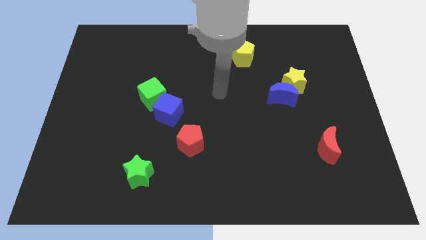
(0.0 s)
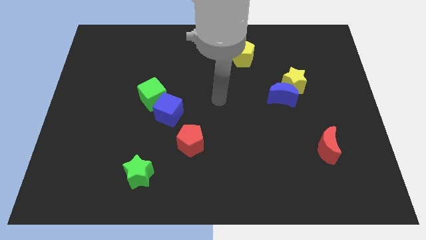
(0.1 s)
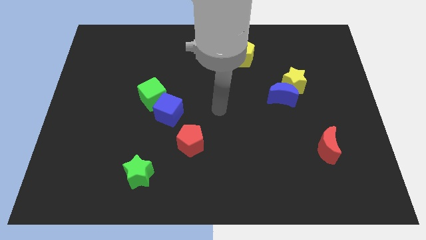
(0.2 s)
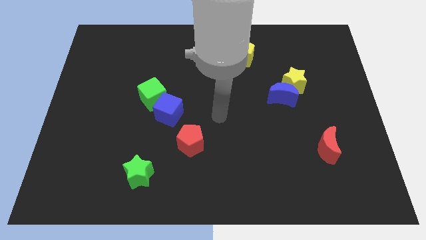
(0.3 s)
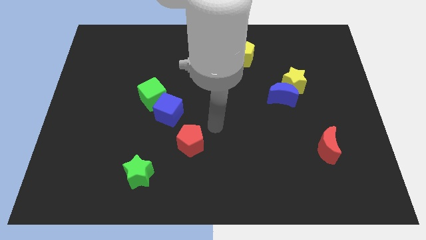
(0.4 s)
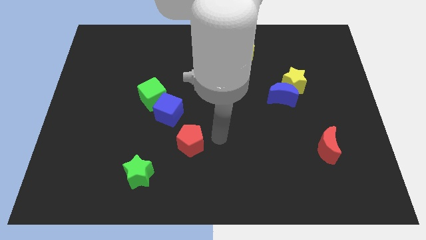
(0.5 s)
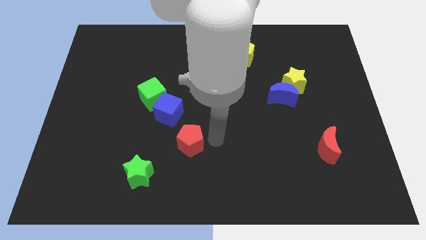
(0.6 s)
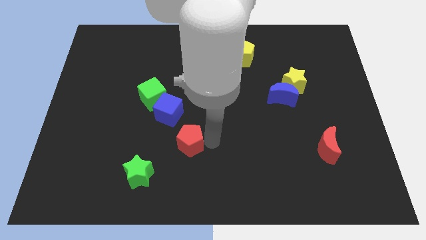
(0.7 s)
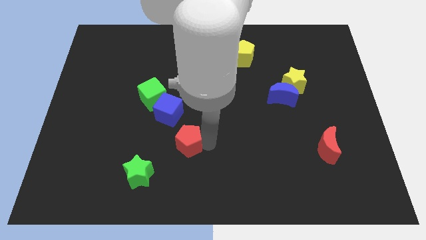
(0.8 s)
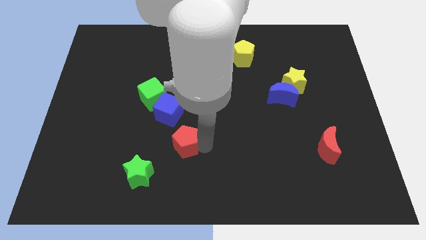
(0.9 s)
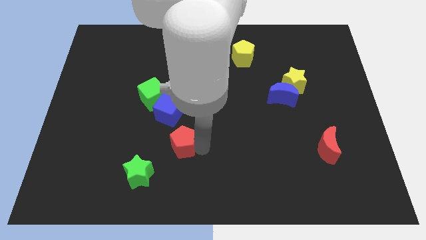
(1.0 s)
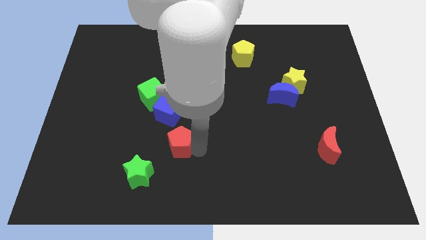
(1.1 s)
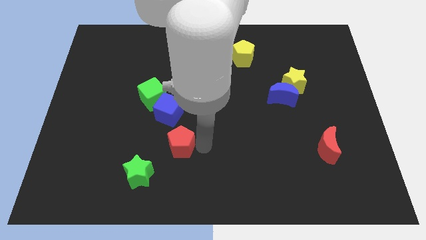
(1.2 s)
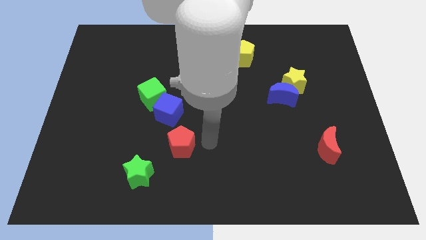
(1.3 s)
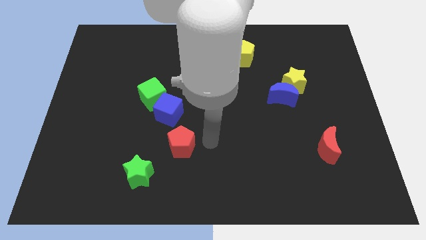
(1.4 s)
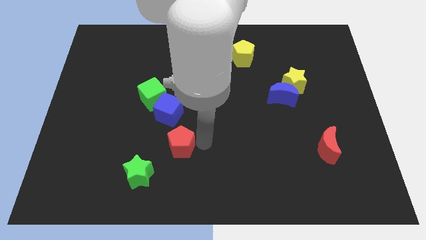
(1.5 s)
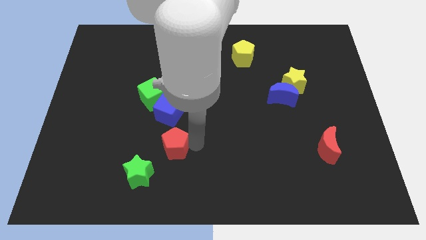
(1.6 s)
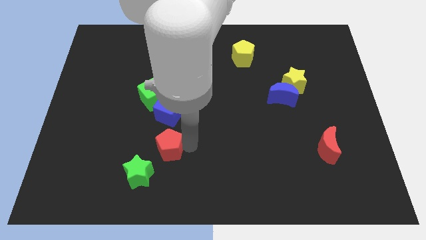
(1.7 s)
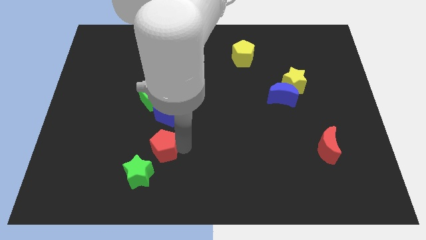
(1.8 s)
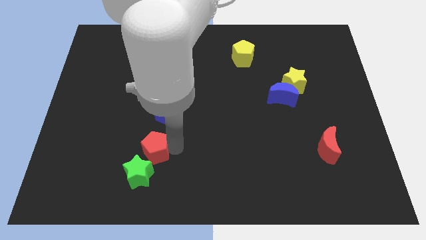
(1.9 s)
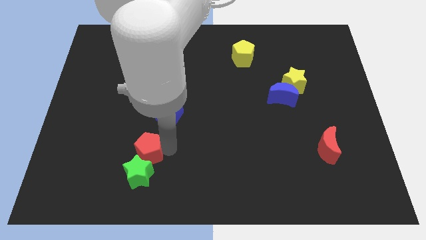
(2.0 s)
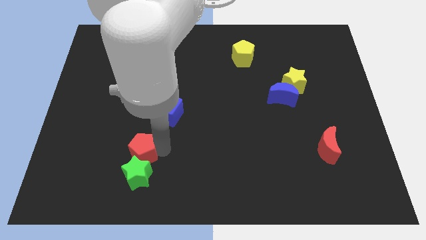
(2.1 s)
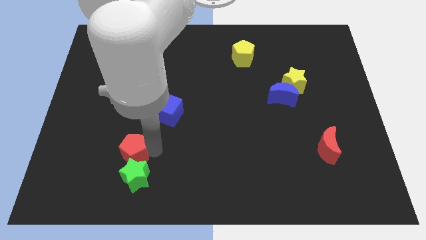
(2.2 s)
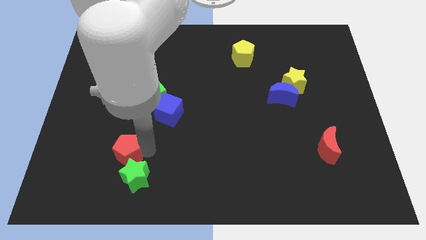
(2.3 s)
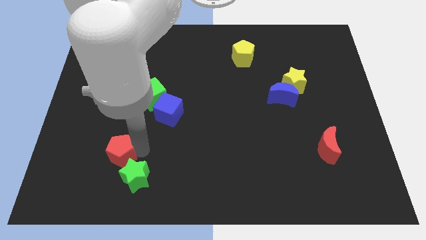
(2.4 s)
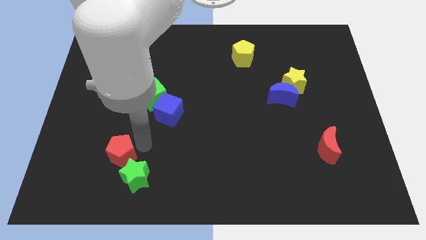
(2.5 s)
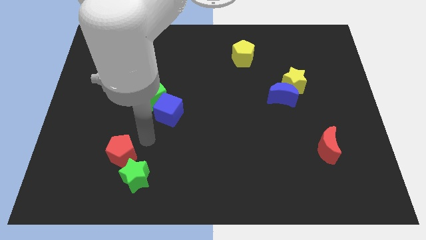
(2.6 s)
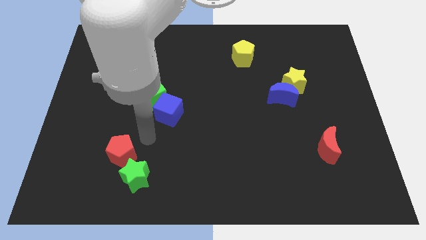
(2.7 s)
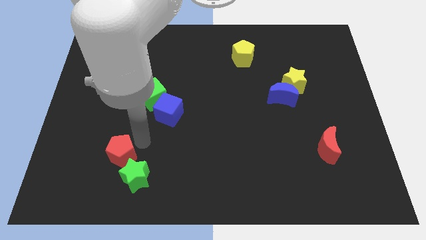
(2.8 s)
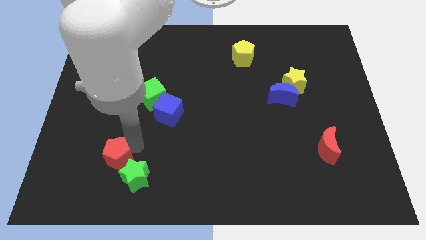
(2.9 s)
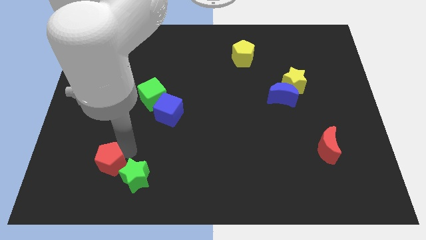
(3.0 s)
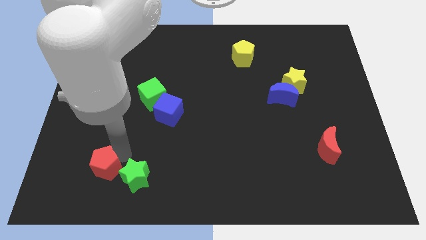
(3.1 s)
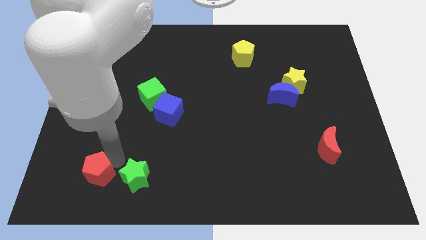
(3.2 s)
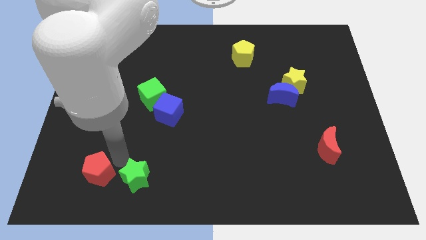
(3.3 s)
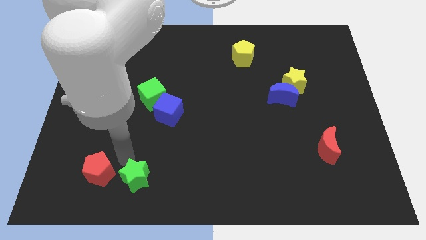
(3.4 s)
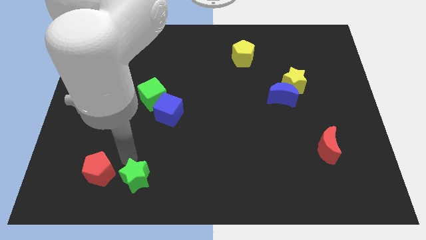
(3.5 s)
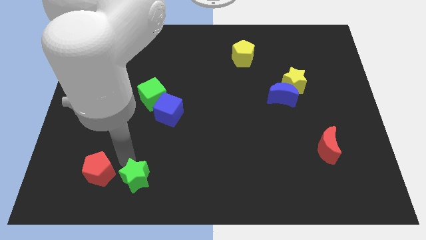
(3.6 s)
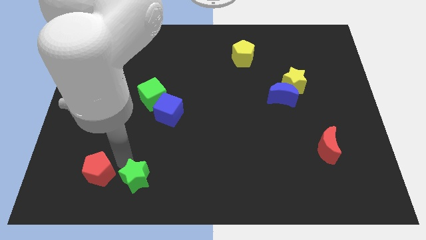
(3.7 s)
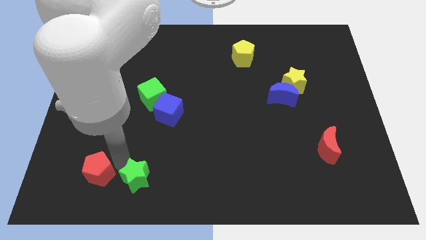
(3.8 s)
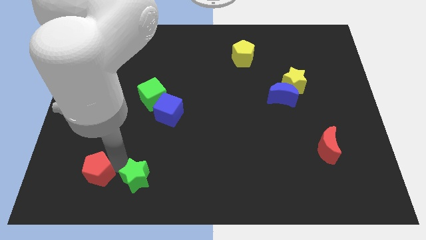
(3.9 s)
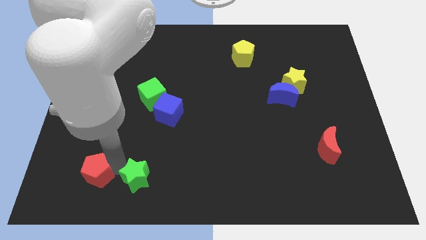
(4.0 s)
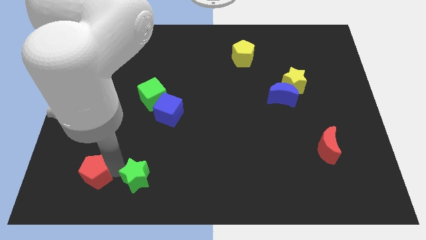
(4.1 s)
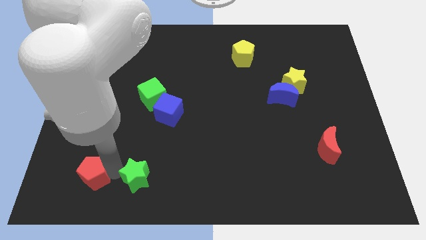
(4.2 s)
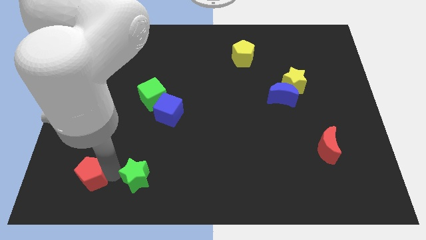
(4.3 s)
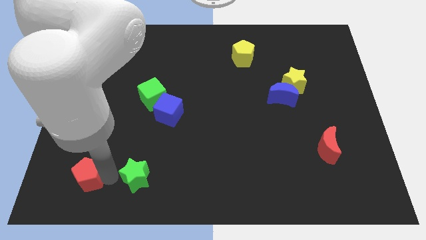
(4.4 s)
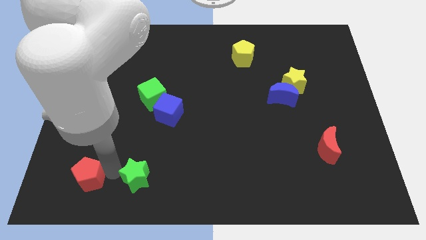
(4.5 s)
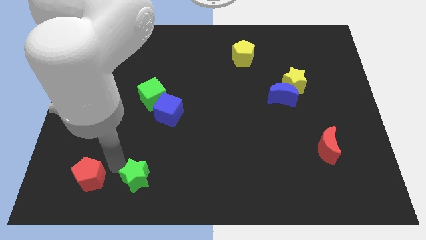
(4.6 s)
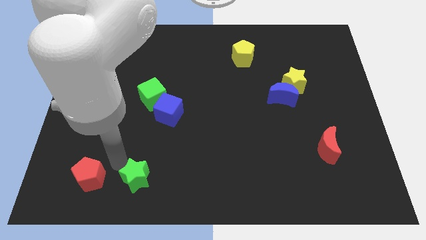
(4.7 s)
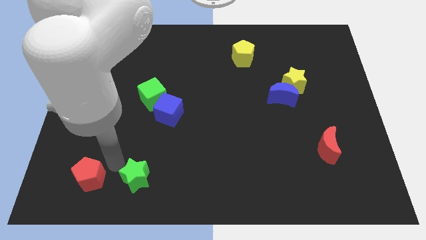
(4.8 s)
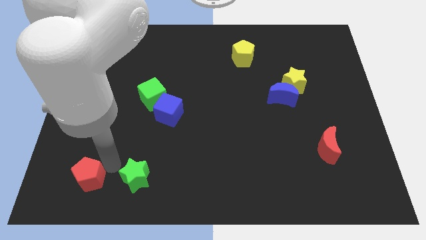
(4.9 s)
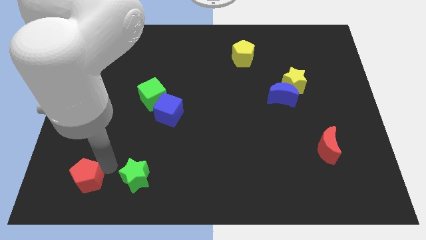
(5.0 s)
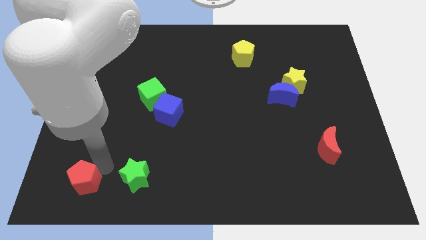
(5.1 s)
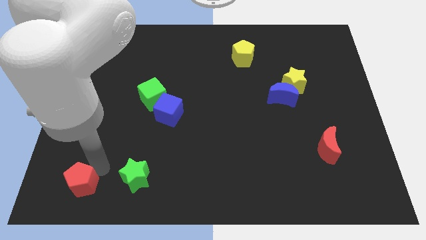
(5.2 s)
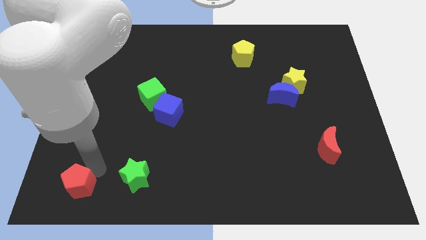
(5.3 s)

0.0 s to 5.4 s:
put the red pentagon to the lower left corner

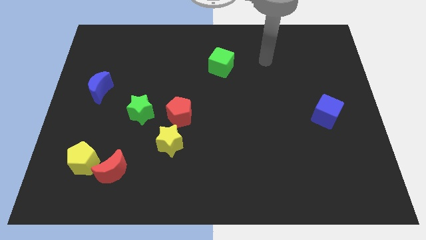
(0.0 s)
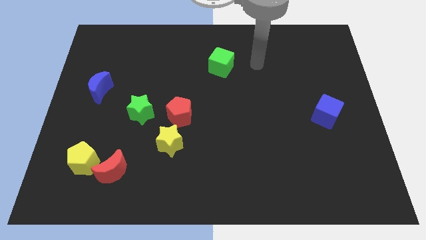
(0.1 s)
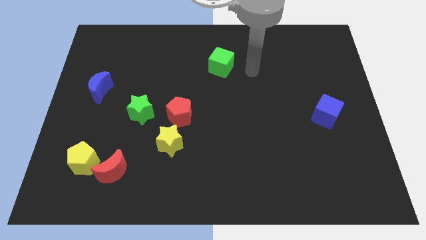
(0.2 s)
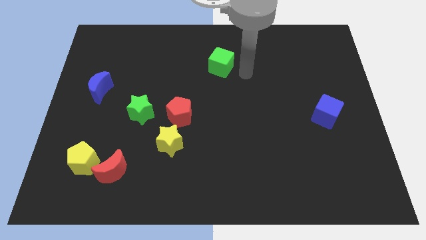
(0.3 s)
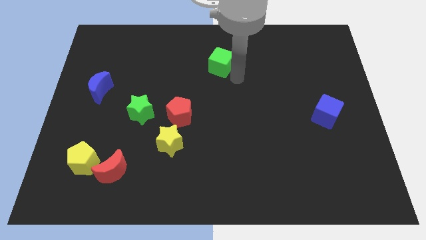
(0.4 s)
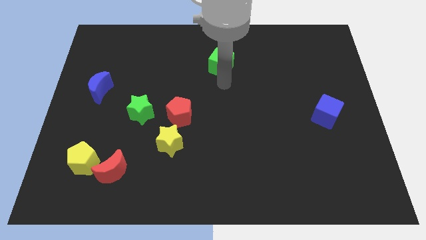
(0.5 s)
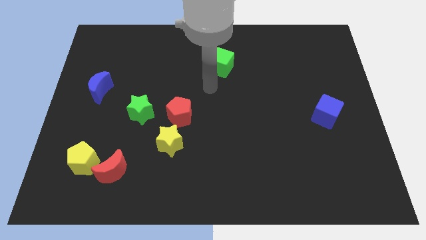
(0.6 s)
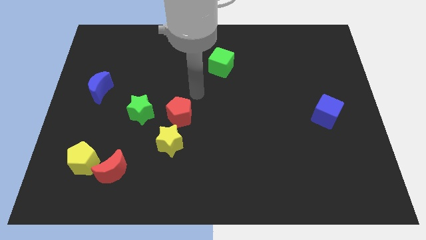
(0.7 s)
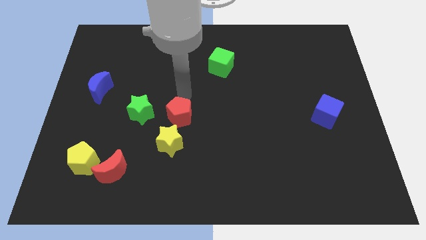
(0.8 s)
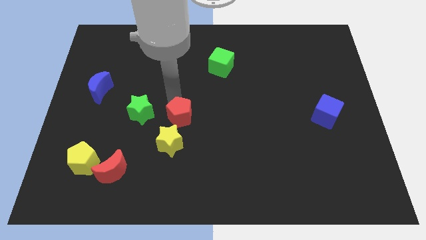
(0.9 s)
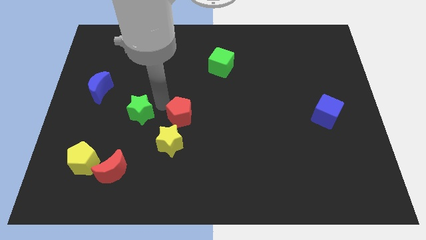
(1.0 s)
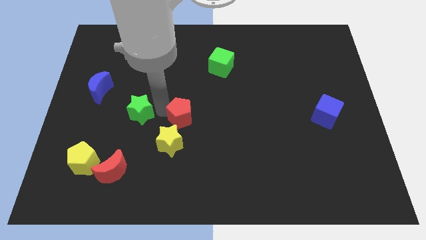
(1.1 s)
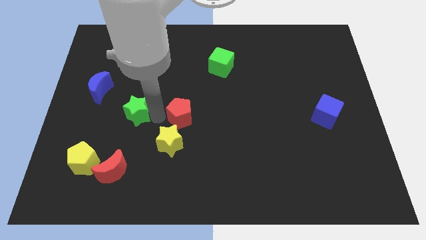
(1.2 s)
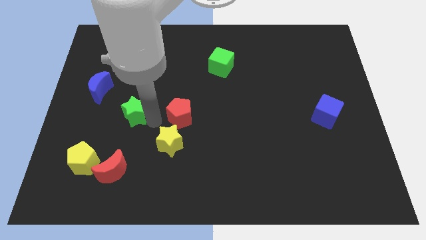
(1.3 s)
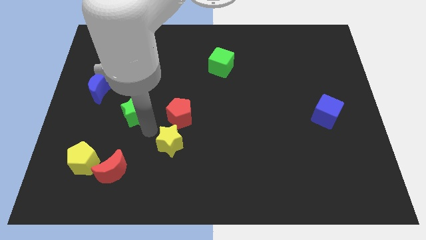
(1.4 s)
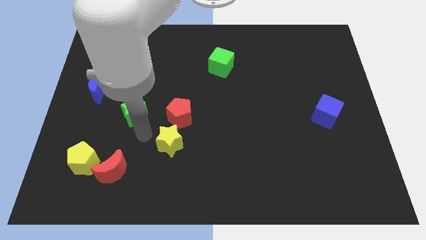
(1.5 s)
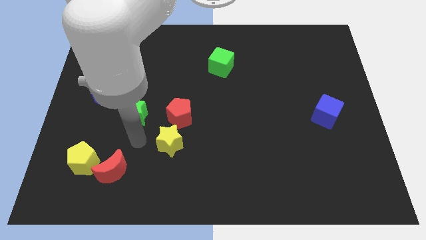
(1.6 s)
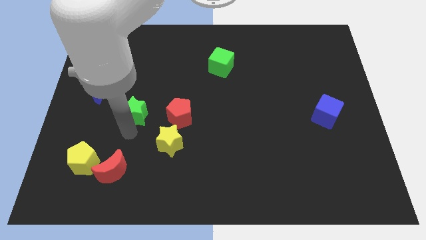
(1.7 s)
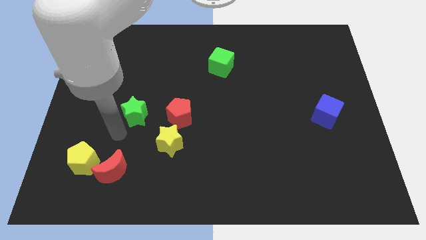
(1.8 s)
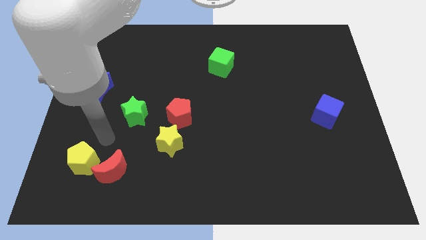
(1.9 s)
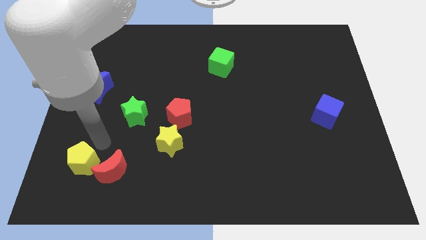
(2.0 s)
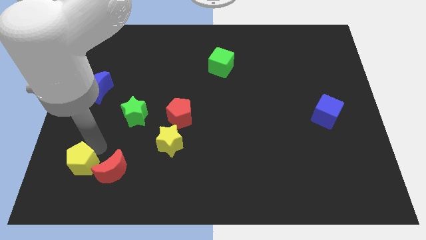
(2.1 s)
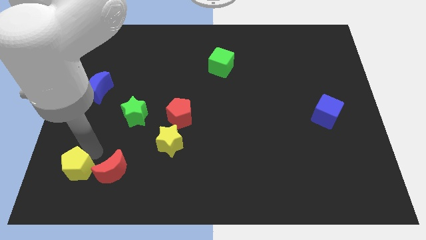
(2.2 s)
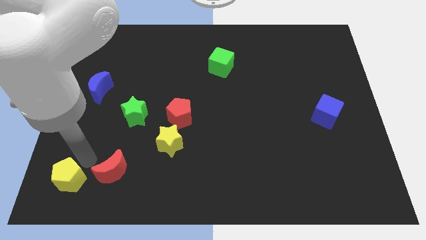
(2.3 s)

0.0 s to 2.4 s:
move the yellow pentagon to the lower left corner
